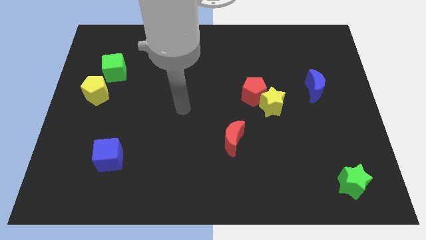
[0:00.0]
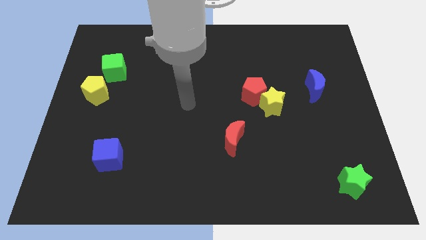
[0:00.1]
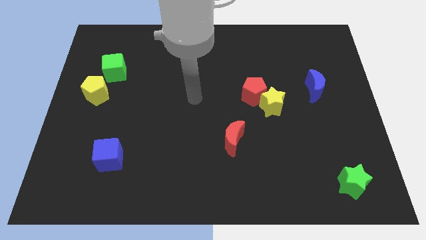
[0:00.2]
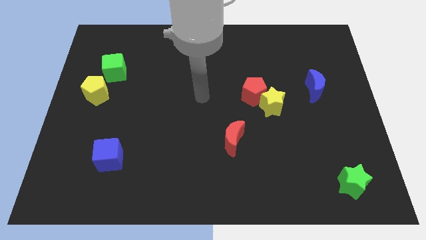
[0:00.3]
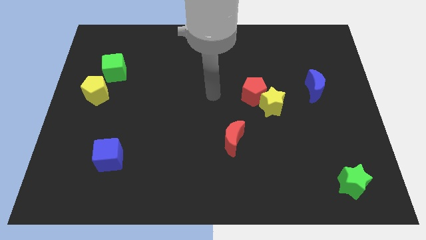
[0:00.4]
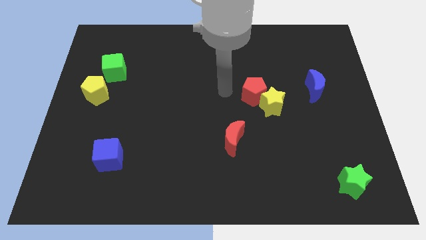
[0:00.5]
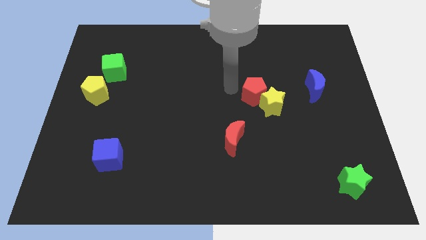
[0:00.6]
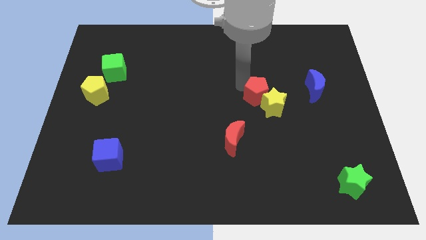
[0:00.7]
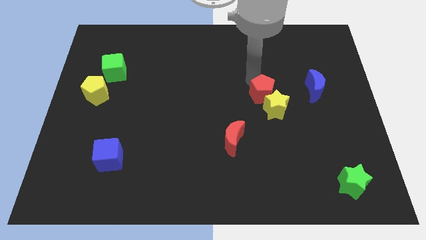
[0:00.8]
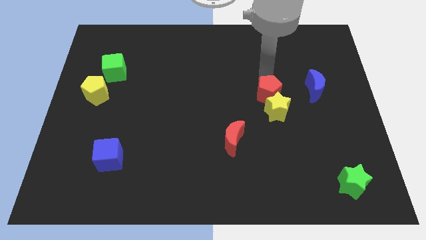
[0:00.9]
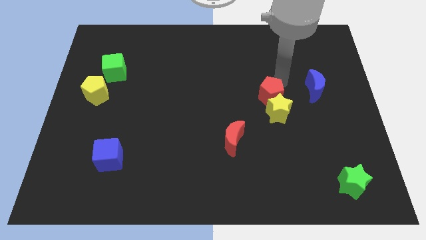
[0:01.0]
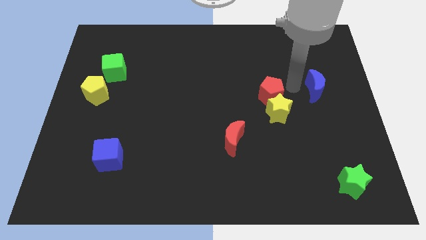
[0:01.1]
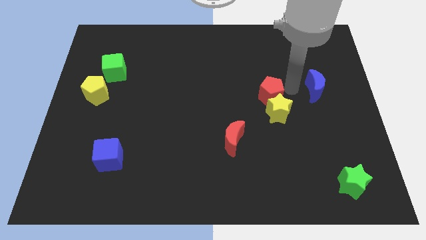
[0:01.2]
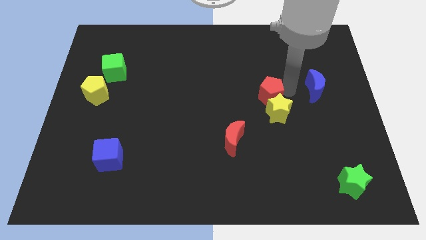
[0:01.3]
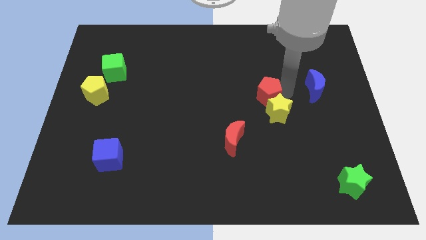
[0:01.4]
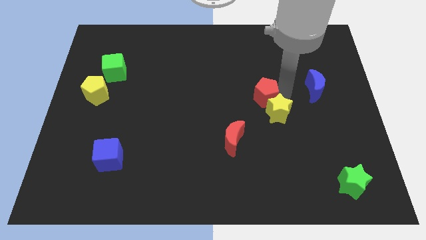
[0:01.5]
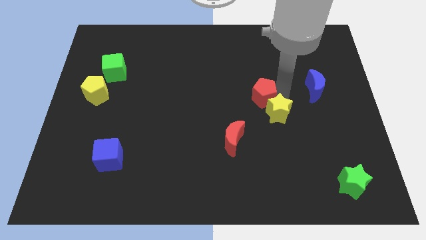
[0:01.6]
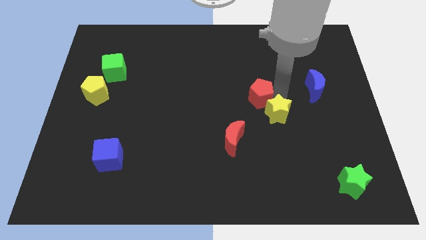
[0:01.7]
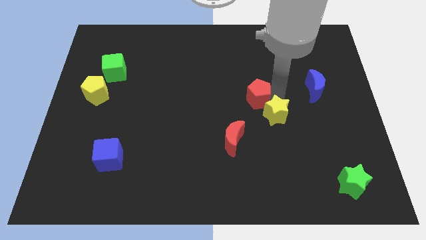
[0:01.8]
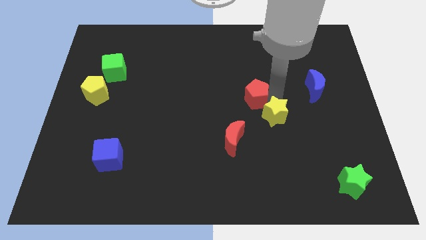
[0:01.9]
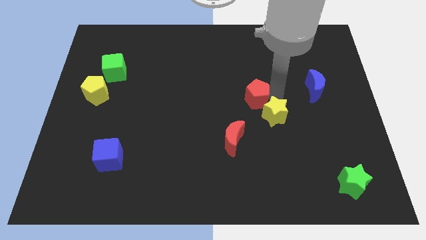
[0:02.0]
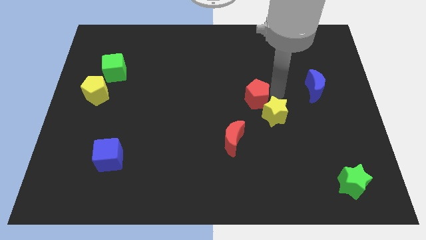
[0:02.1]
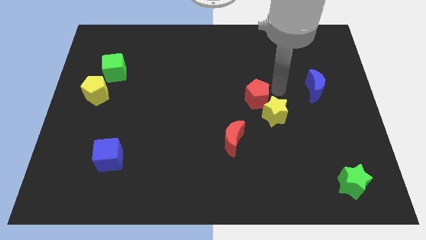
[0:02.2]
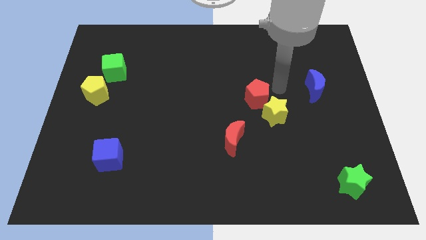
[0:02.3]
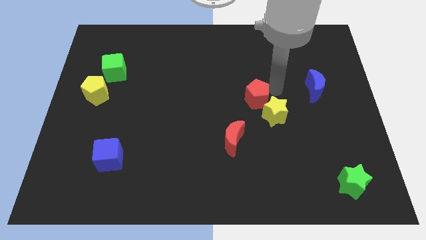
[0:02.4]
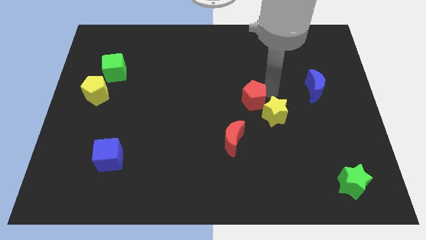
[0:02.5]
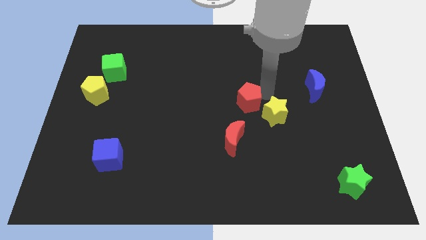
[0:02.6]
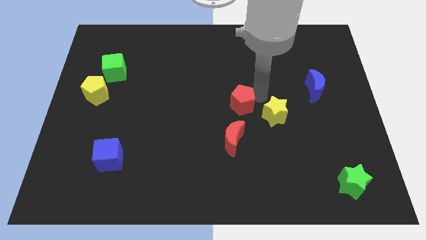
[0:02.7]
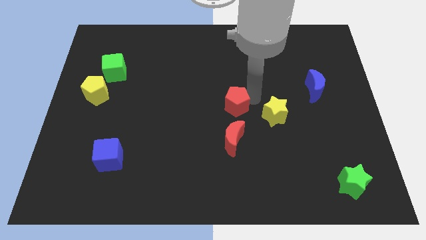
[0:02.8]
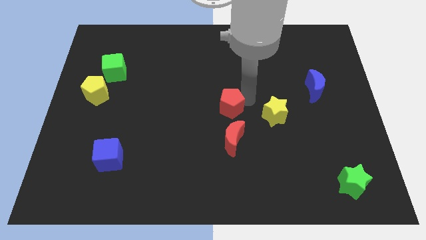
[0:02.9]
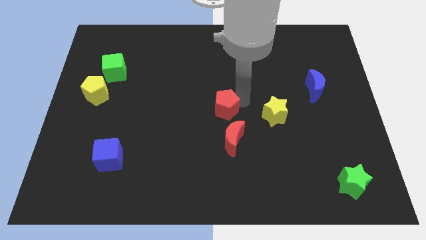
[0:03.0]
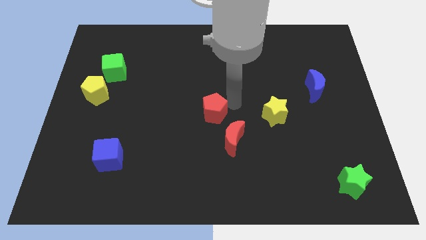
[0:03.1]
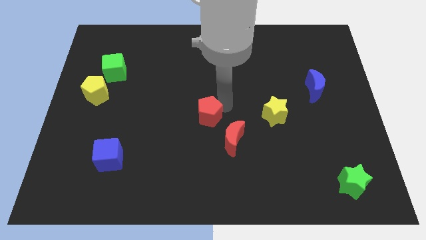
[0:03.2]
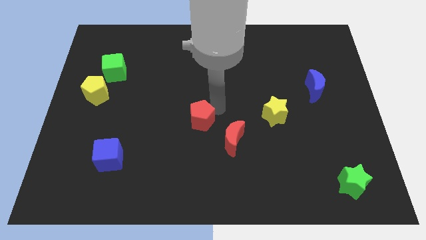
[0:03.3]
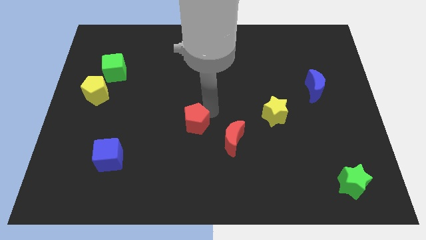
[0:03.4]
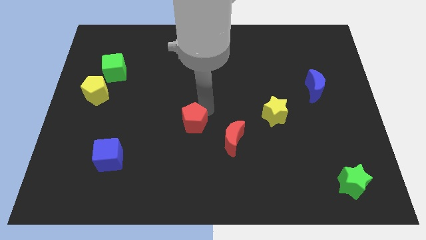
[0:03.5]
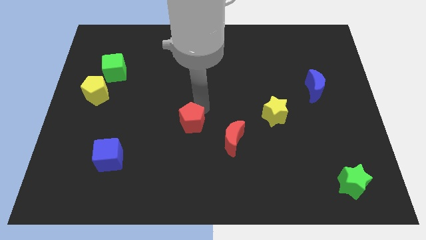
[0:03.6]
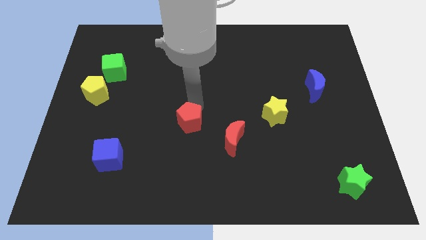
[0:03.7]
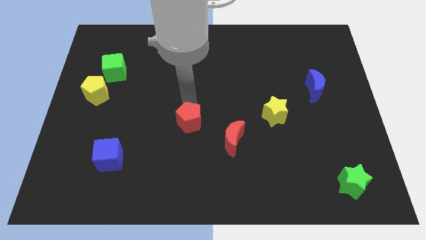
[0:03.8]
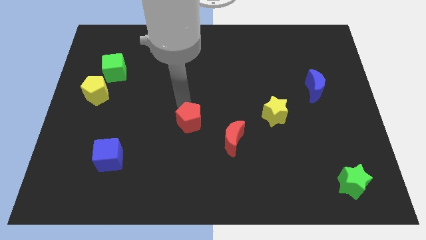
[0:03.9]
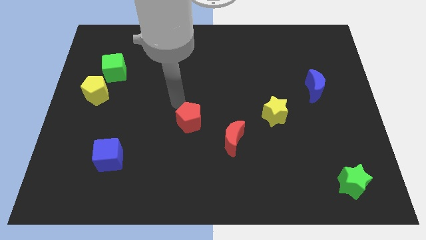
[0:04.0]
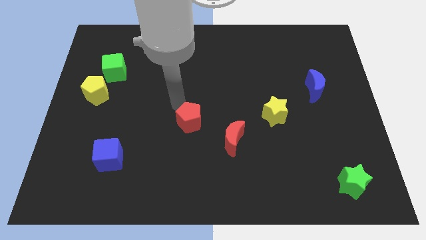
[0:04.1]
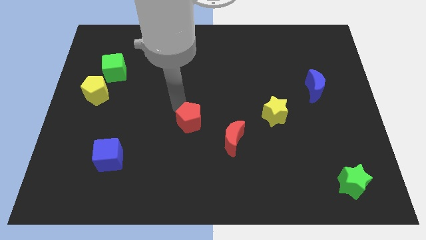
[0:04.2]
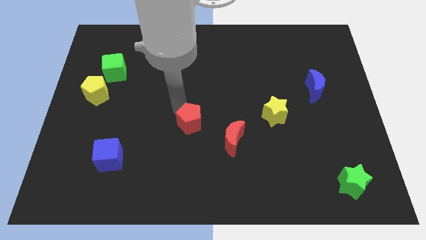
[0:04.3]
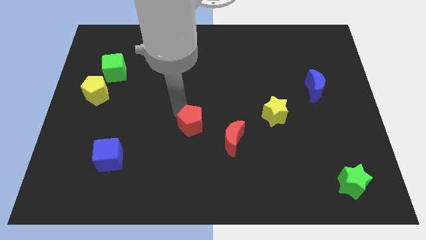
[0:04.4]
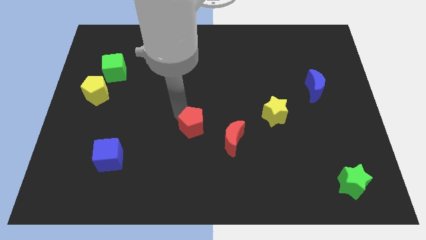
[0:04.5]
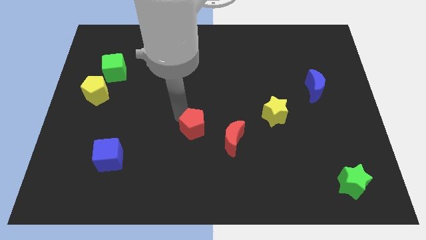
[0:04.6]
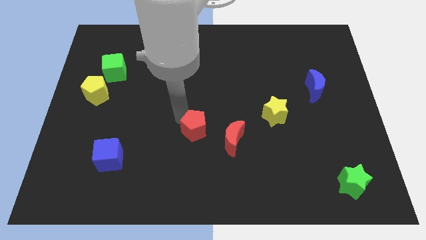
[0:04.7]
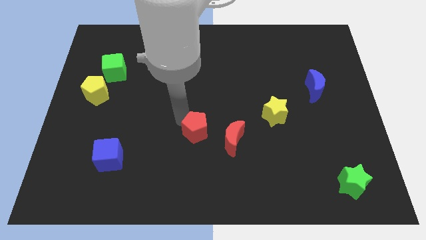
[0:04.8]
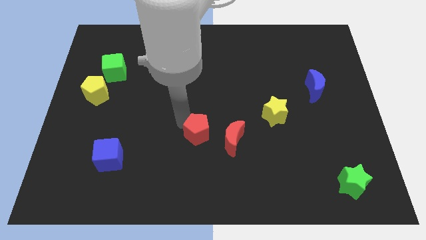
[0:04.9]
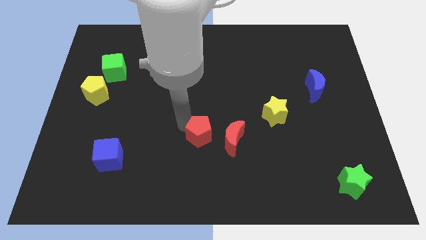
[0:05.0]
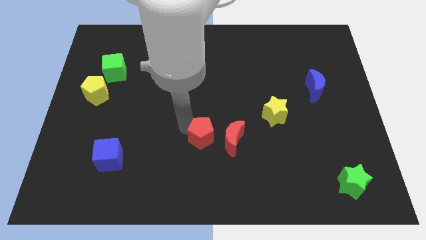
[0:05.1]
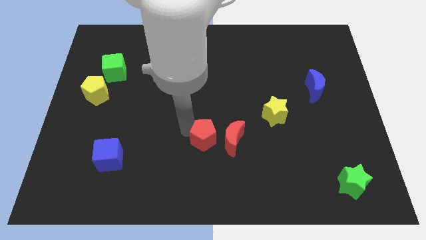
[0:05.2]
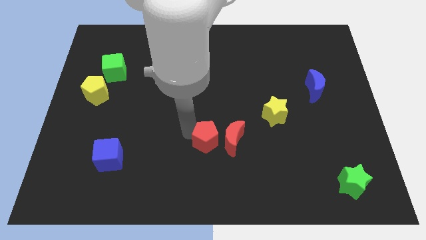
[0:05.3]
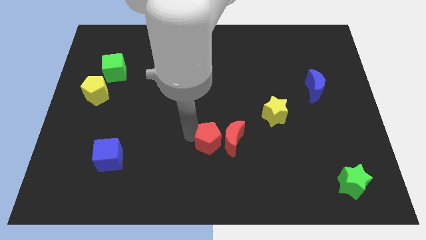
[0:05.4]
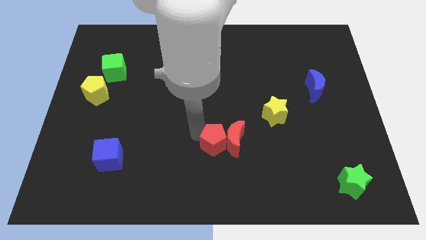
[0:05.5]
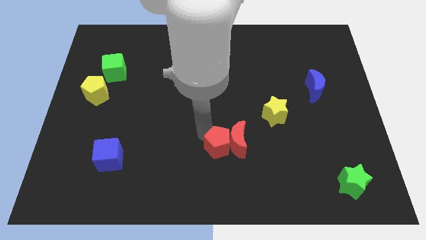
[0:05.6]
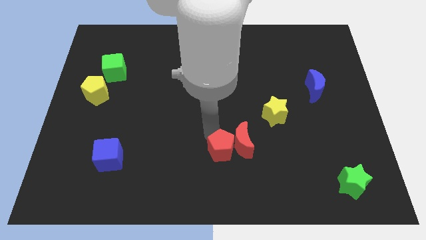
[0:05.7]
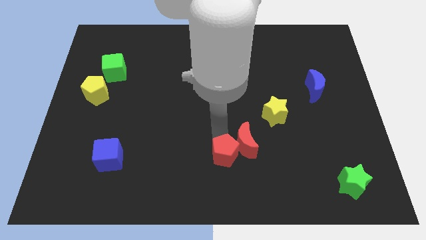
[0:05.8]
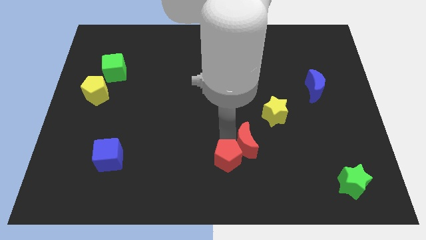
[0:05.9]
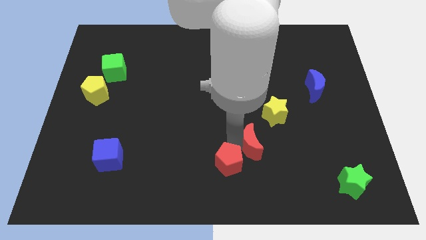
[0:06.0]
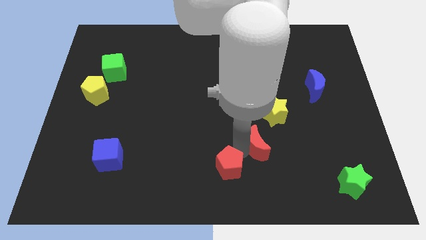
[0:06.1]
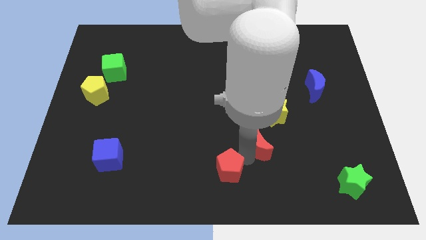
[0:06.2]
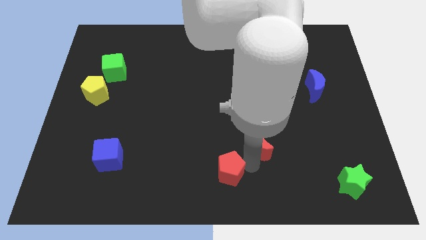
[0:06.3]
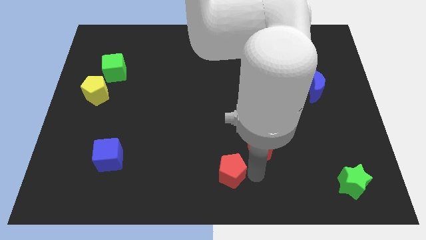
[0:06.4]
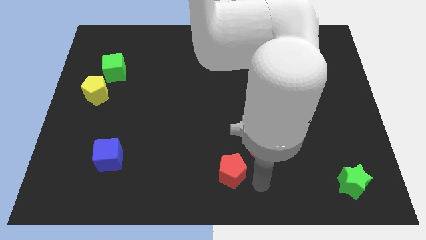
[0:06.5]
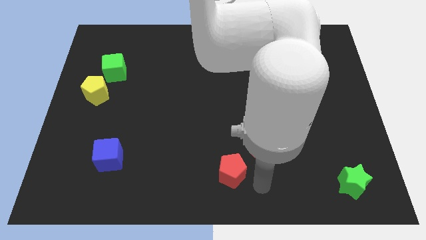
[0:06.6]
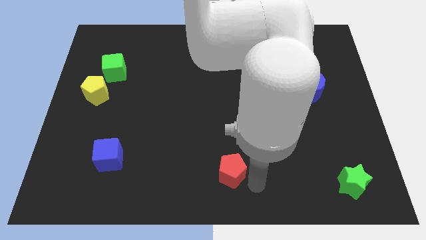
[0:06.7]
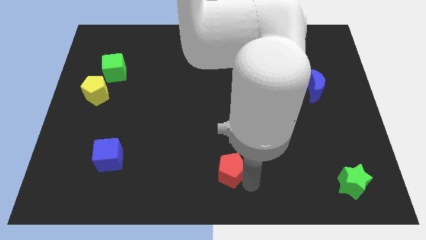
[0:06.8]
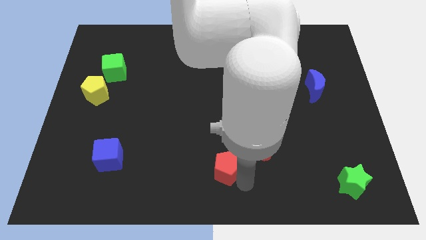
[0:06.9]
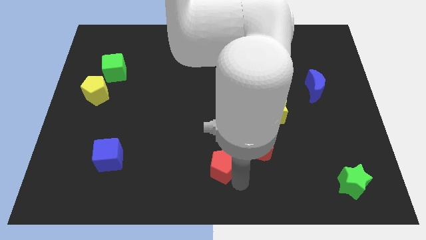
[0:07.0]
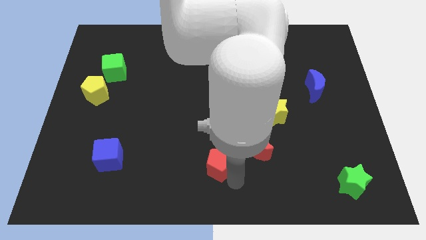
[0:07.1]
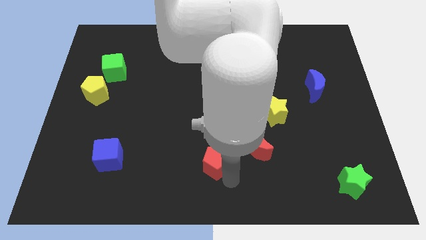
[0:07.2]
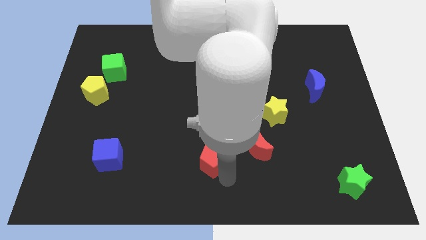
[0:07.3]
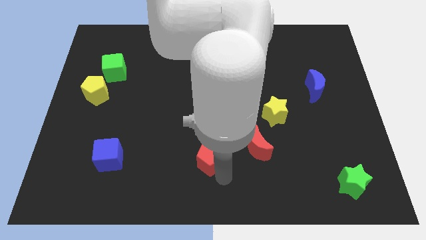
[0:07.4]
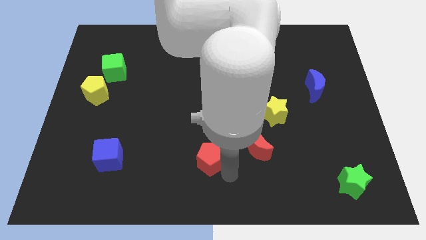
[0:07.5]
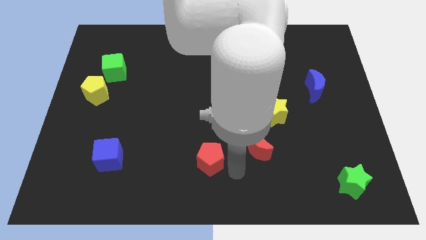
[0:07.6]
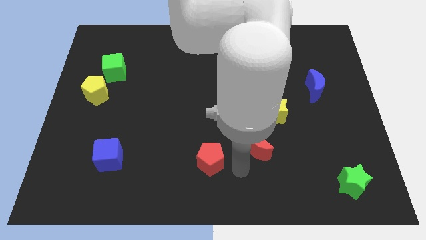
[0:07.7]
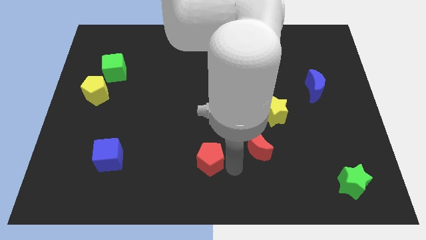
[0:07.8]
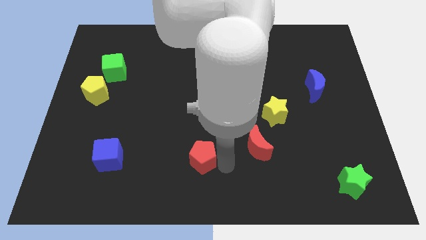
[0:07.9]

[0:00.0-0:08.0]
slide the red pentagon diagonally downwards and left
